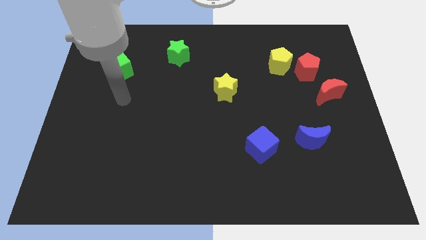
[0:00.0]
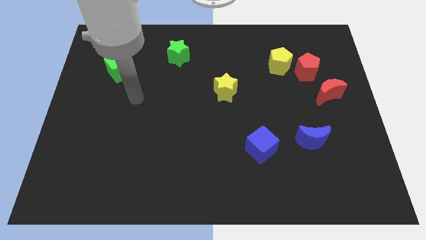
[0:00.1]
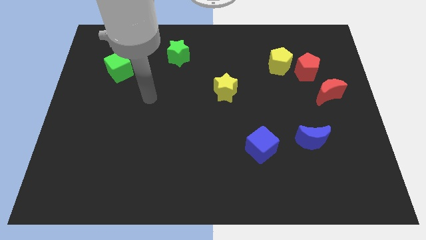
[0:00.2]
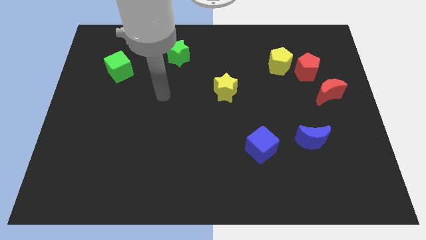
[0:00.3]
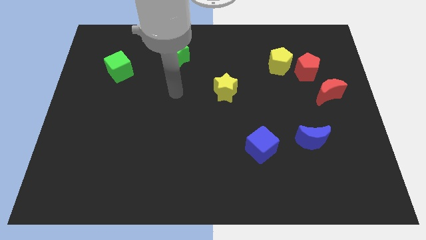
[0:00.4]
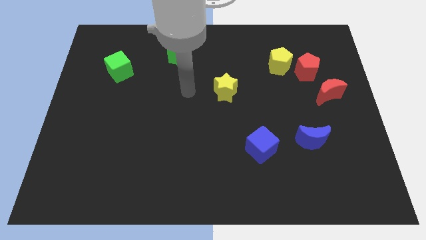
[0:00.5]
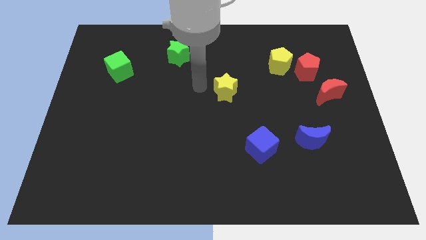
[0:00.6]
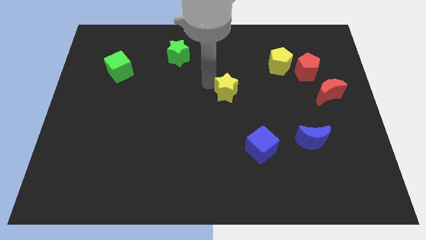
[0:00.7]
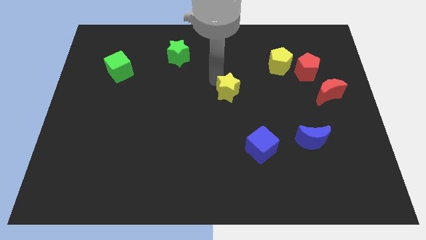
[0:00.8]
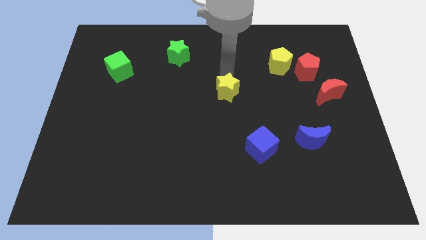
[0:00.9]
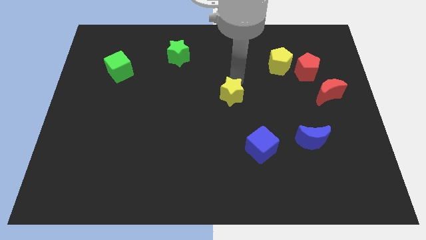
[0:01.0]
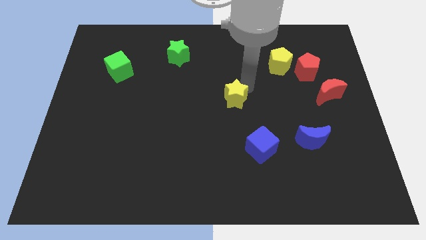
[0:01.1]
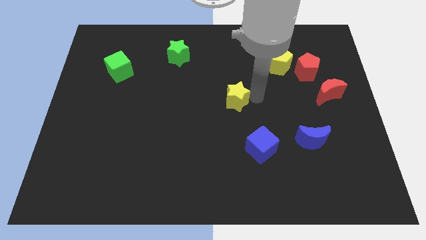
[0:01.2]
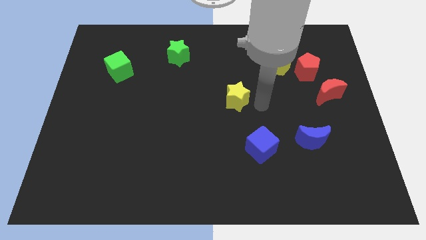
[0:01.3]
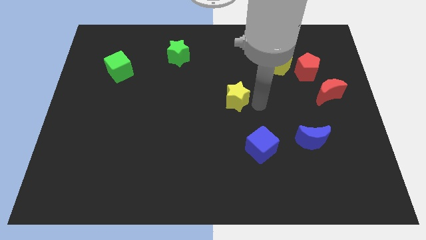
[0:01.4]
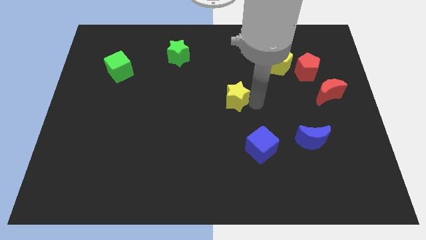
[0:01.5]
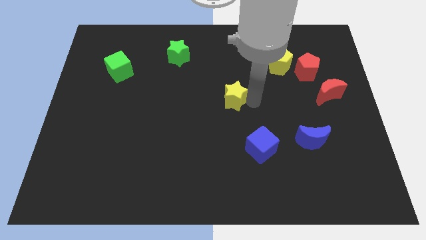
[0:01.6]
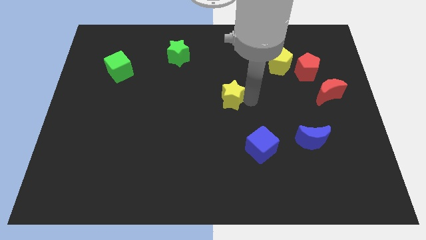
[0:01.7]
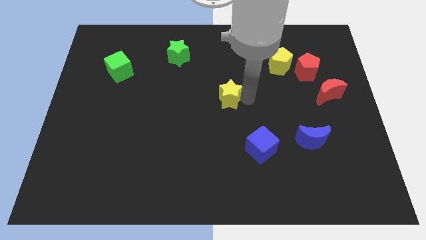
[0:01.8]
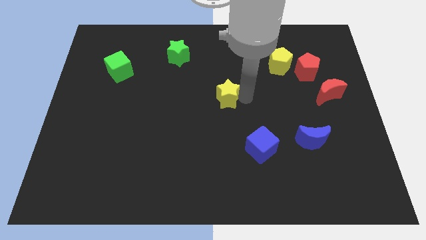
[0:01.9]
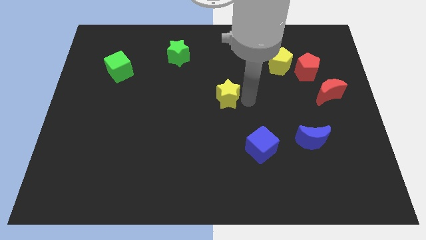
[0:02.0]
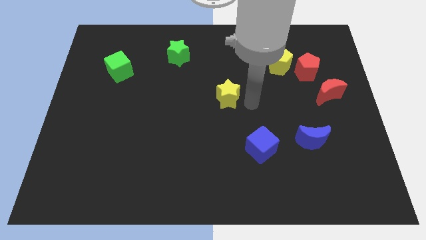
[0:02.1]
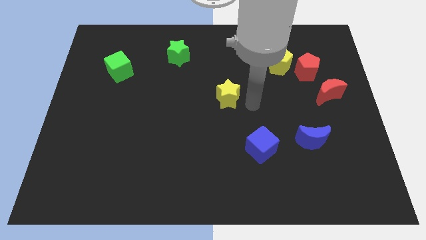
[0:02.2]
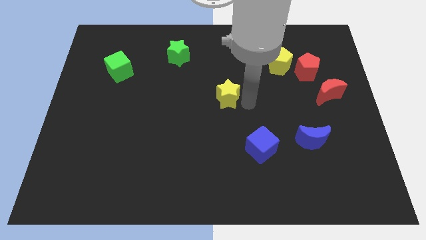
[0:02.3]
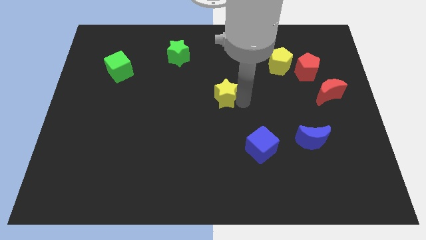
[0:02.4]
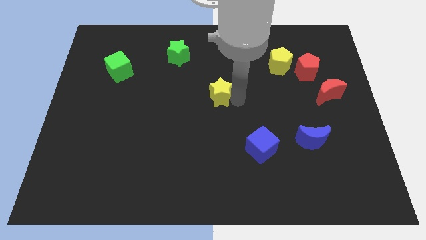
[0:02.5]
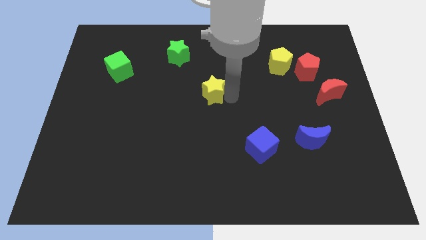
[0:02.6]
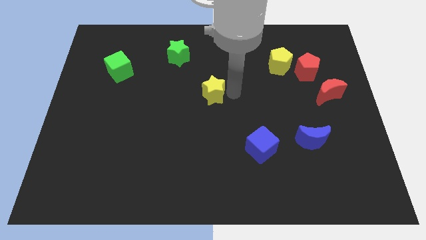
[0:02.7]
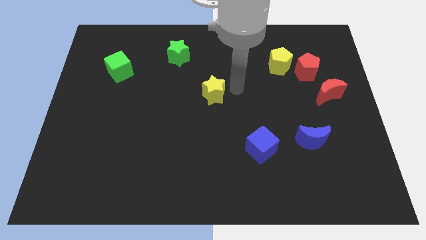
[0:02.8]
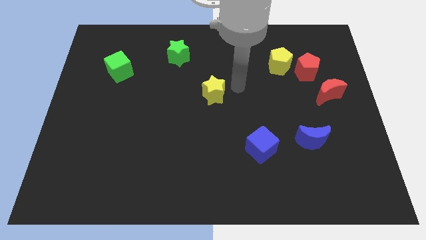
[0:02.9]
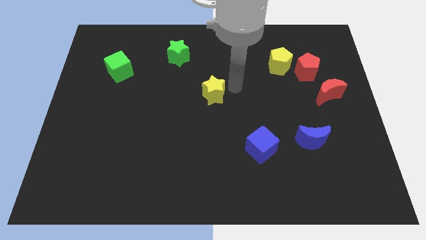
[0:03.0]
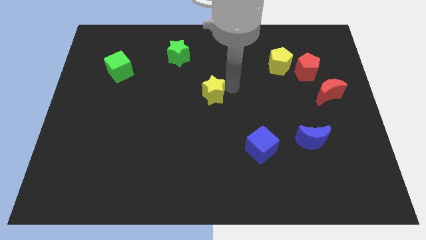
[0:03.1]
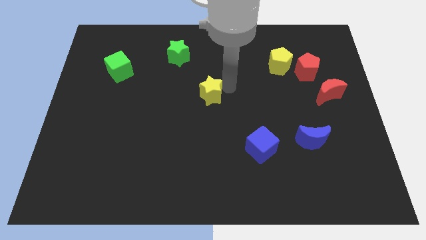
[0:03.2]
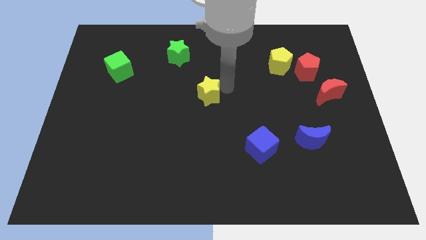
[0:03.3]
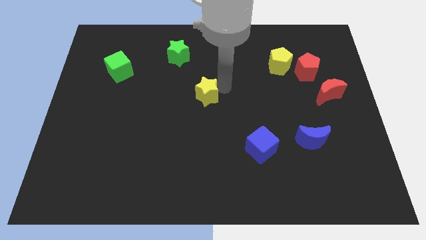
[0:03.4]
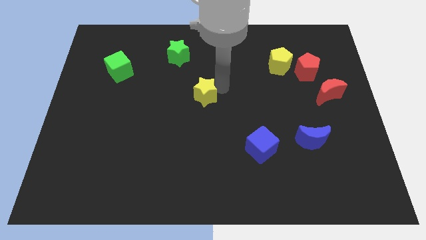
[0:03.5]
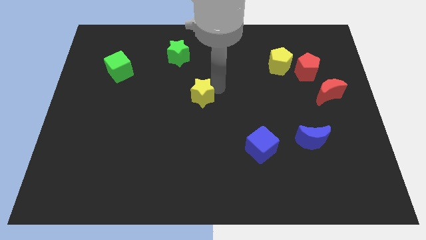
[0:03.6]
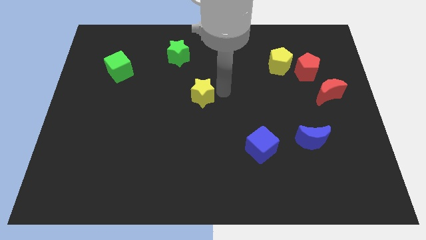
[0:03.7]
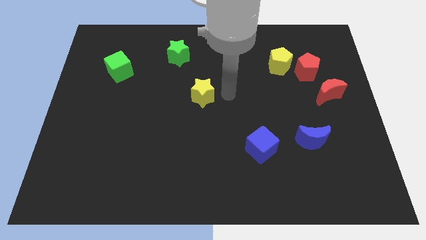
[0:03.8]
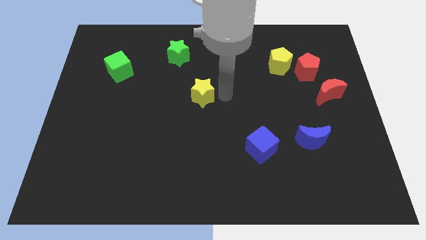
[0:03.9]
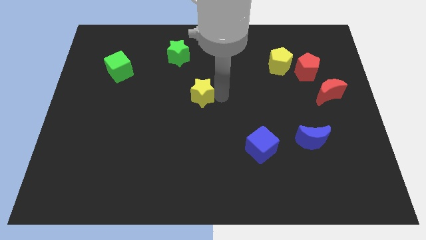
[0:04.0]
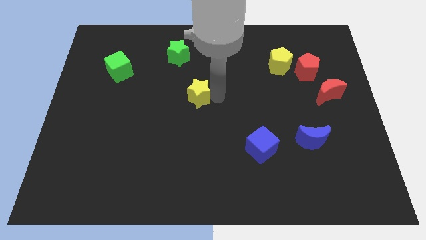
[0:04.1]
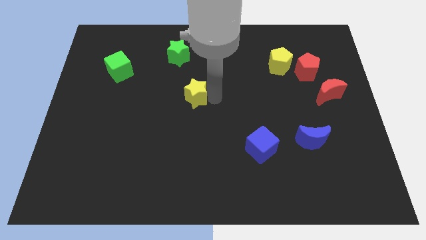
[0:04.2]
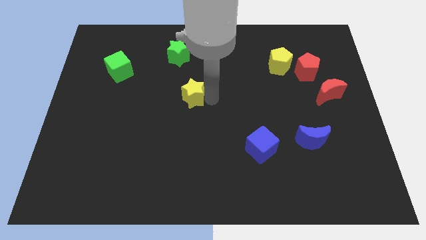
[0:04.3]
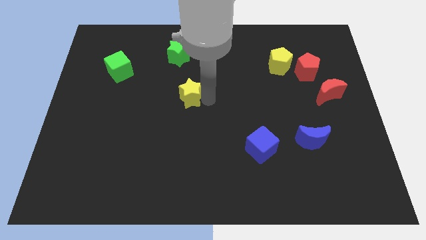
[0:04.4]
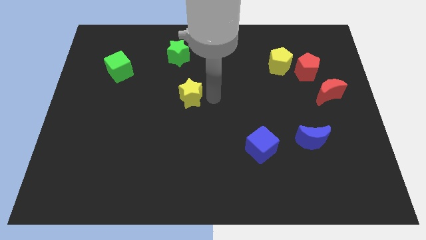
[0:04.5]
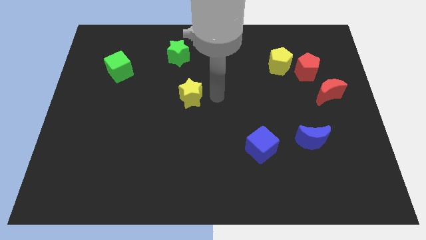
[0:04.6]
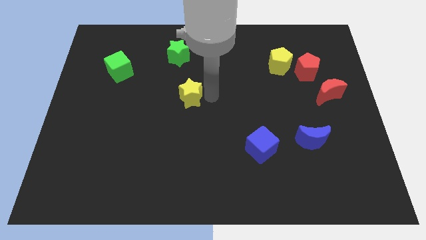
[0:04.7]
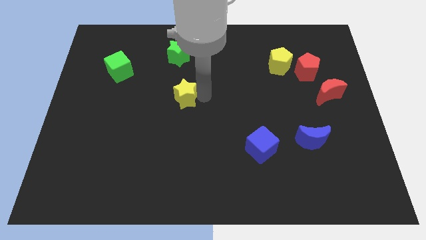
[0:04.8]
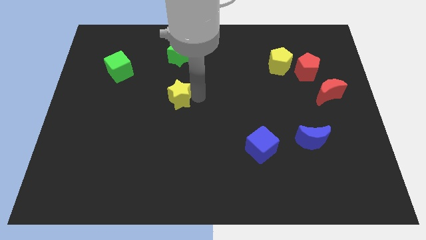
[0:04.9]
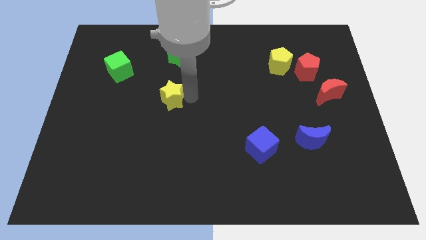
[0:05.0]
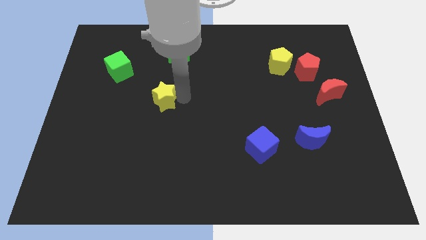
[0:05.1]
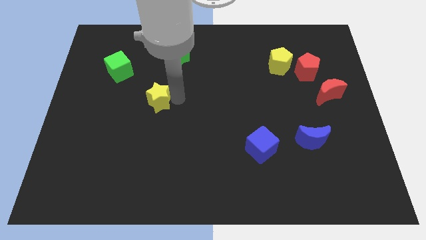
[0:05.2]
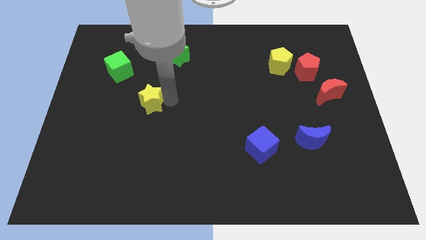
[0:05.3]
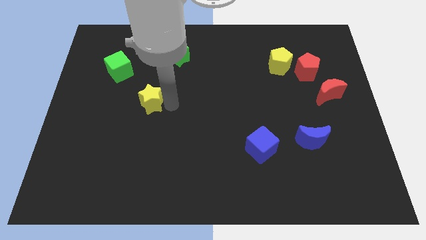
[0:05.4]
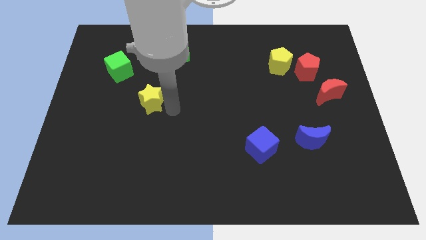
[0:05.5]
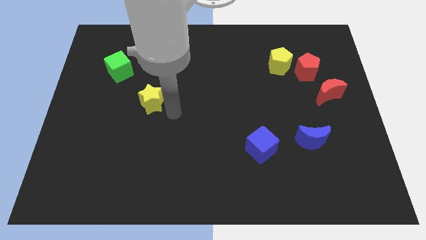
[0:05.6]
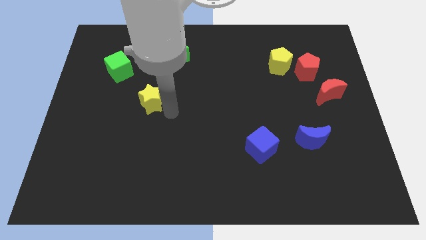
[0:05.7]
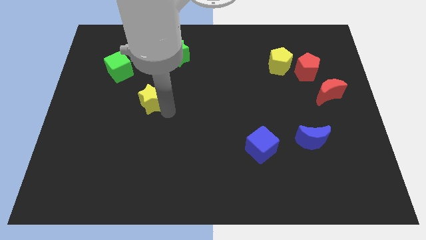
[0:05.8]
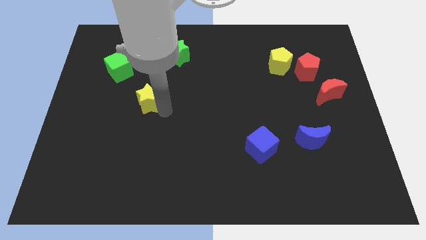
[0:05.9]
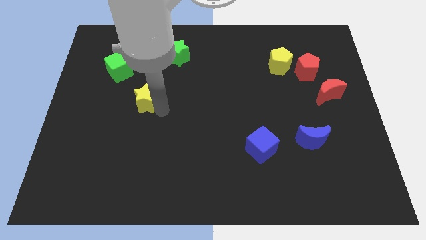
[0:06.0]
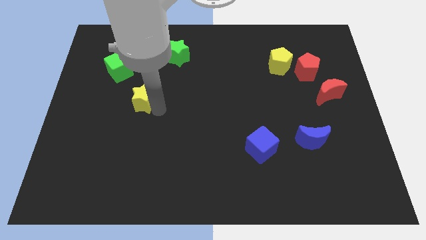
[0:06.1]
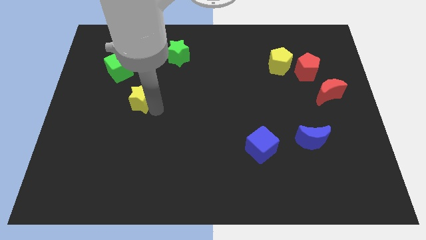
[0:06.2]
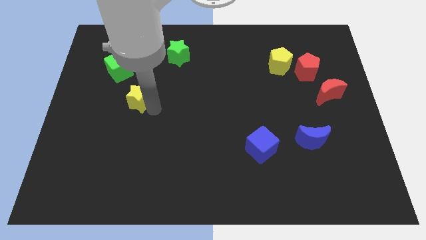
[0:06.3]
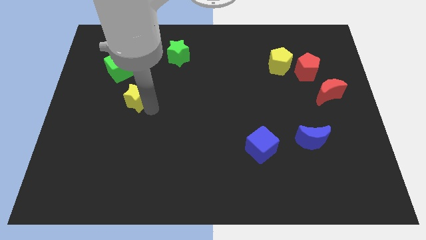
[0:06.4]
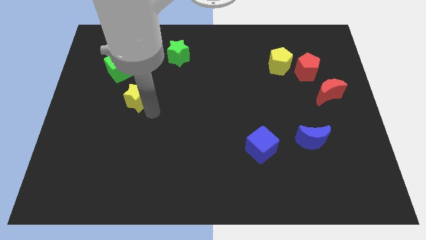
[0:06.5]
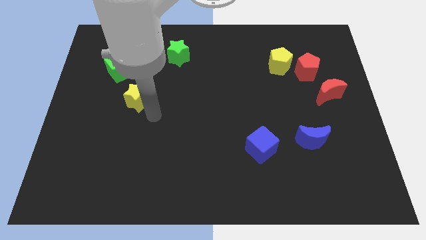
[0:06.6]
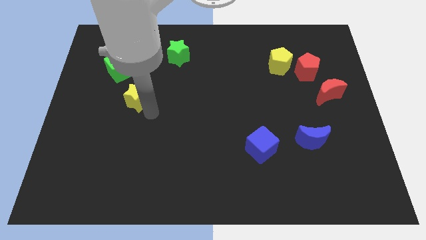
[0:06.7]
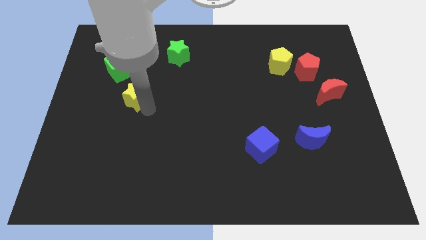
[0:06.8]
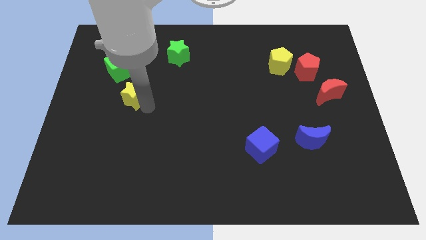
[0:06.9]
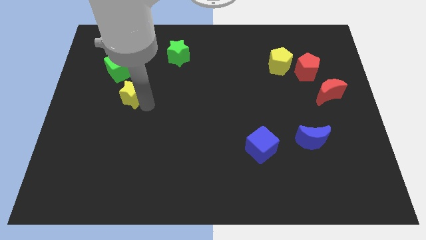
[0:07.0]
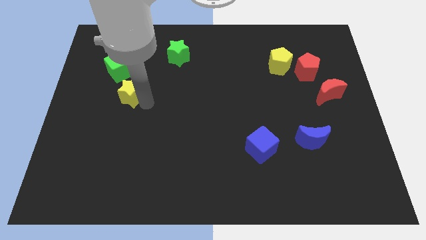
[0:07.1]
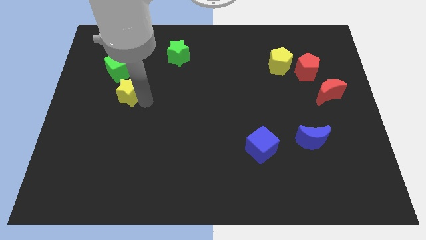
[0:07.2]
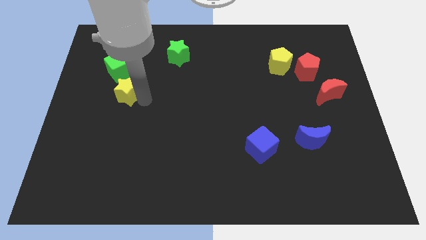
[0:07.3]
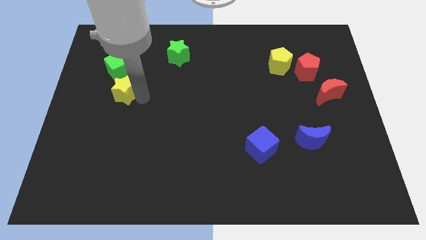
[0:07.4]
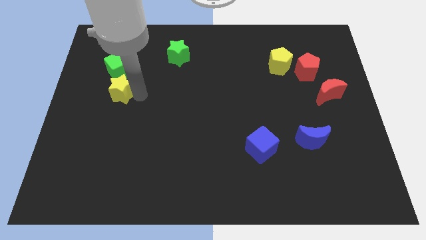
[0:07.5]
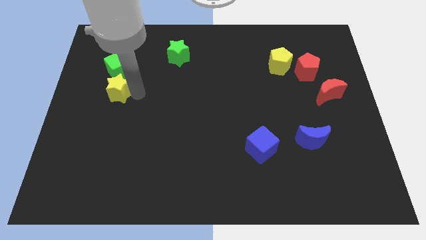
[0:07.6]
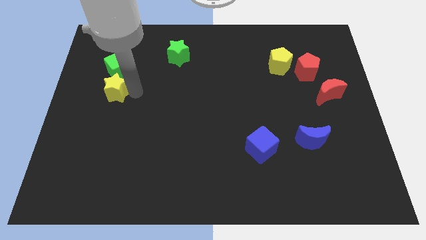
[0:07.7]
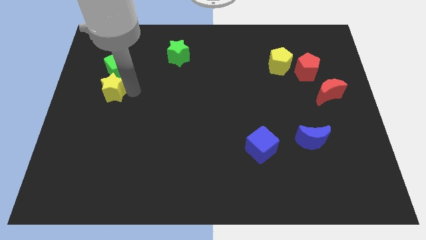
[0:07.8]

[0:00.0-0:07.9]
put the yellow star diagonally down and to the left of the green cube
